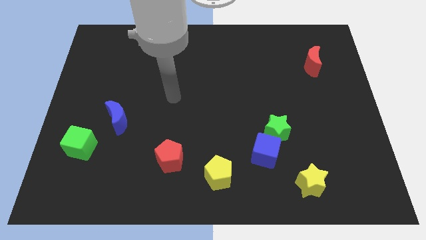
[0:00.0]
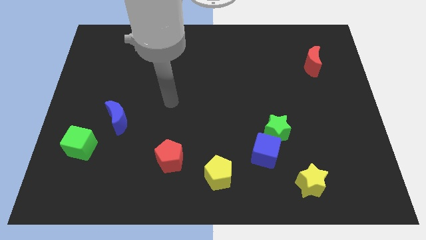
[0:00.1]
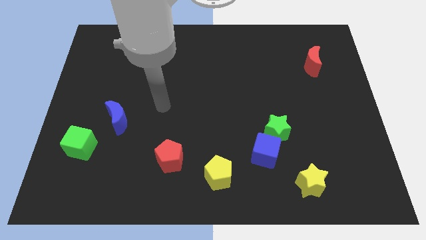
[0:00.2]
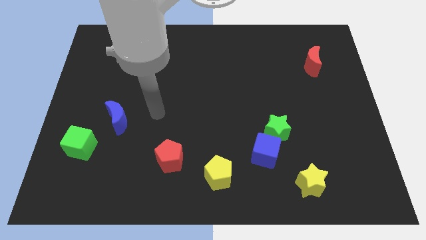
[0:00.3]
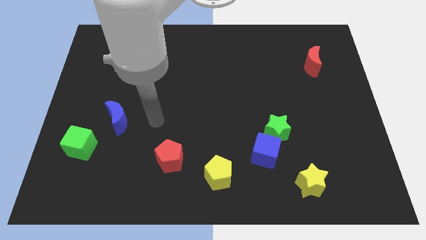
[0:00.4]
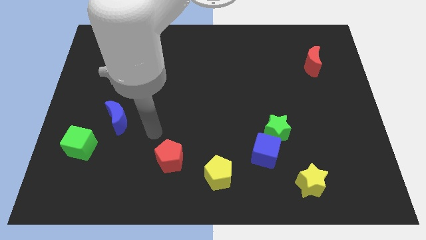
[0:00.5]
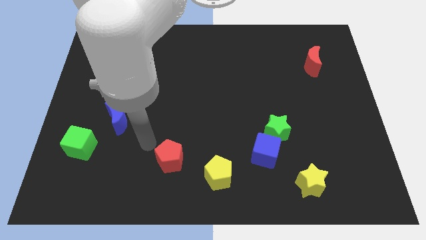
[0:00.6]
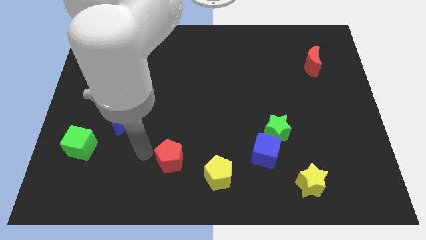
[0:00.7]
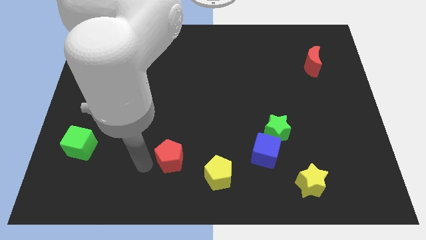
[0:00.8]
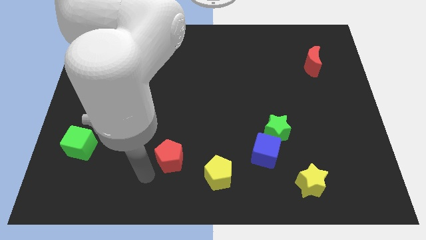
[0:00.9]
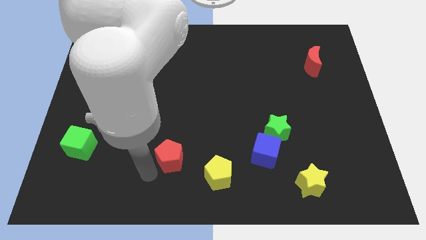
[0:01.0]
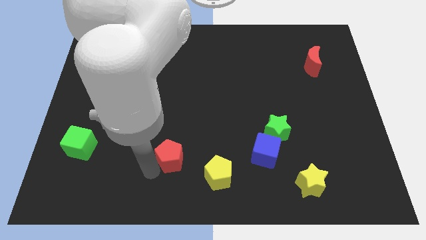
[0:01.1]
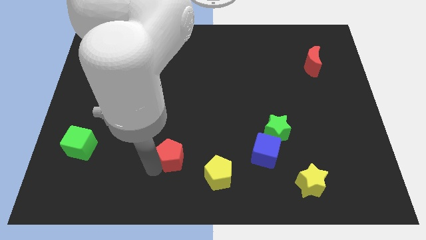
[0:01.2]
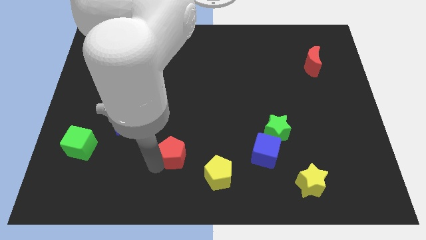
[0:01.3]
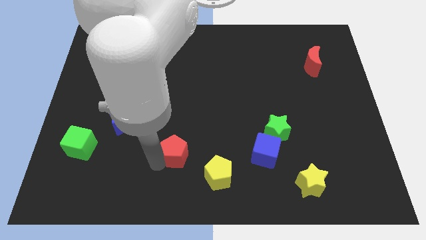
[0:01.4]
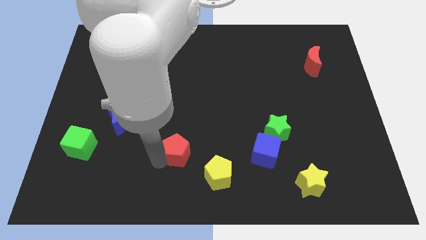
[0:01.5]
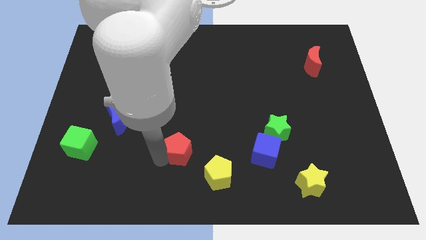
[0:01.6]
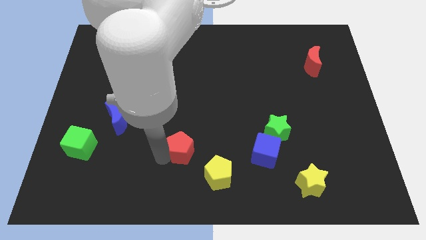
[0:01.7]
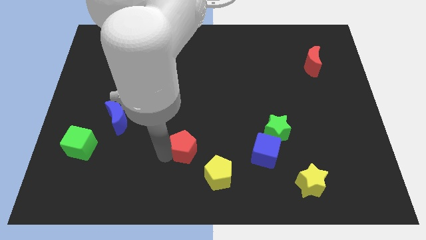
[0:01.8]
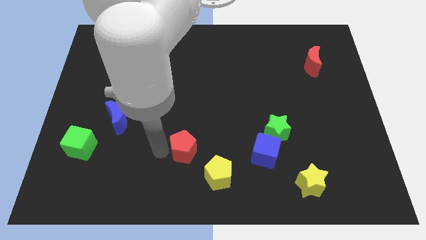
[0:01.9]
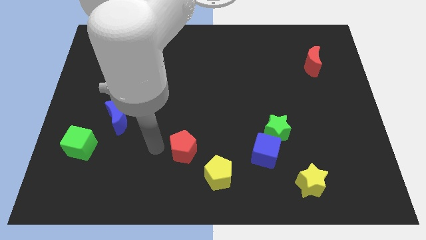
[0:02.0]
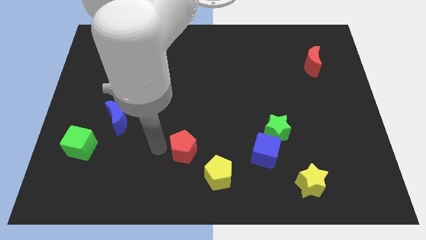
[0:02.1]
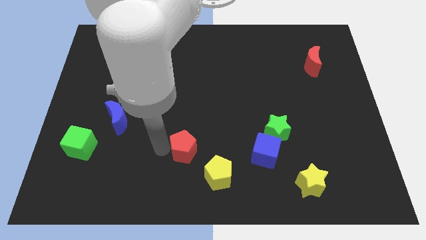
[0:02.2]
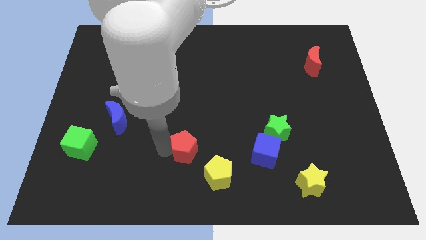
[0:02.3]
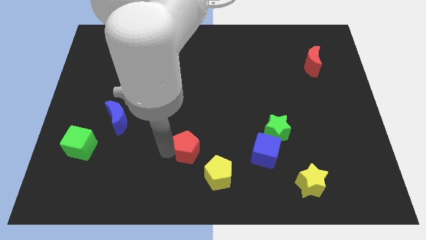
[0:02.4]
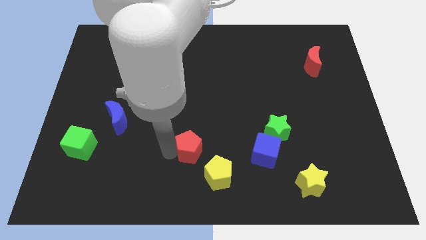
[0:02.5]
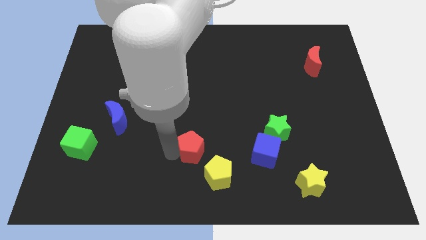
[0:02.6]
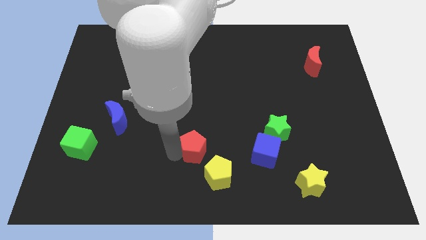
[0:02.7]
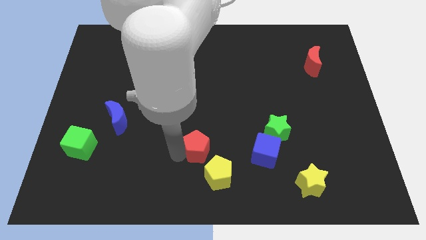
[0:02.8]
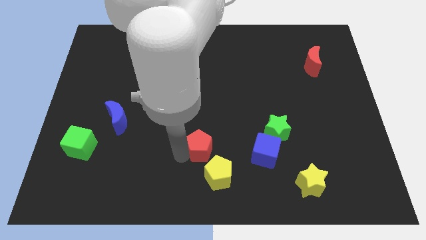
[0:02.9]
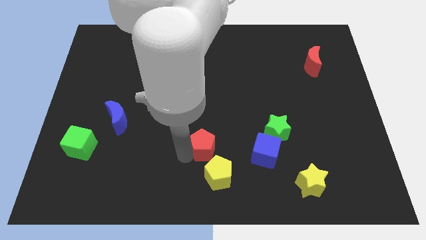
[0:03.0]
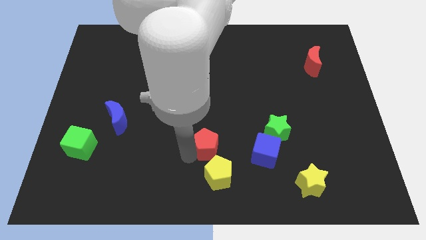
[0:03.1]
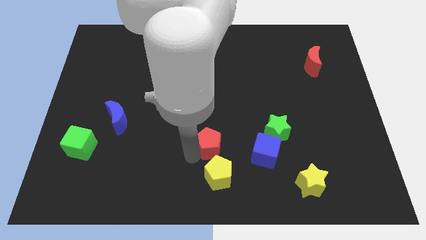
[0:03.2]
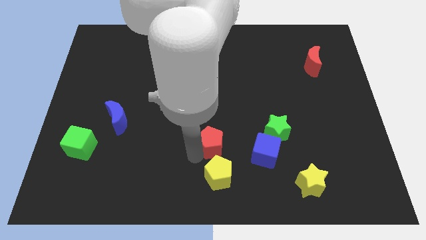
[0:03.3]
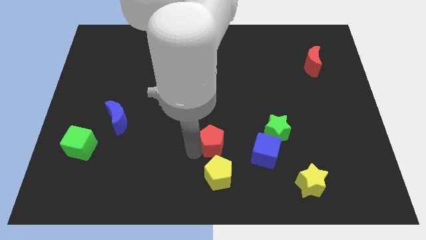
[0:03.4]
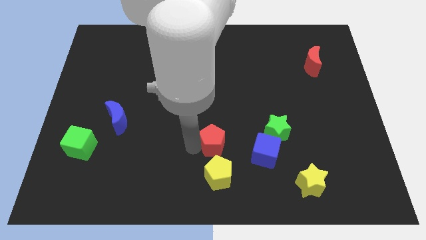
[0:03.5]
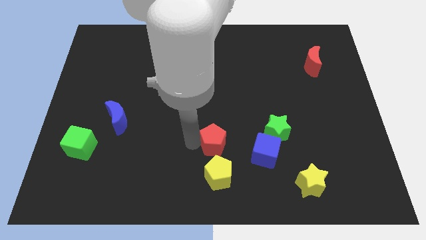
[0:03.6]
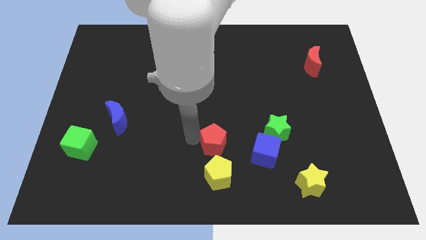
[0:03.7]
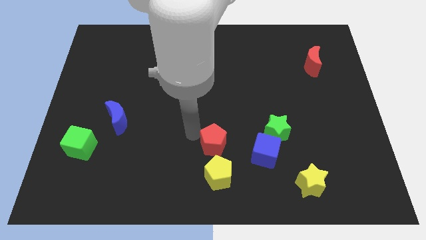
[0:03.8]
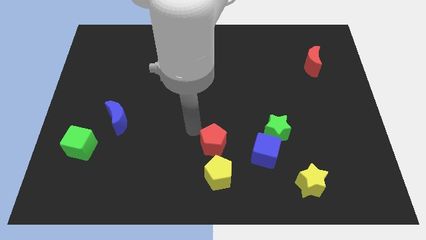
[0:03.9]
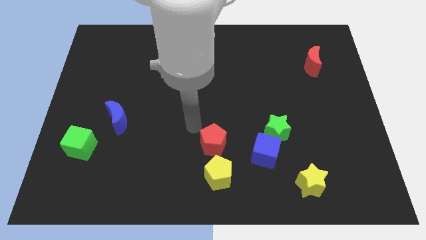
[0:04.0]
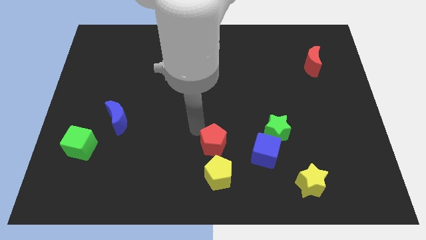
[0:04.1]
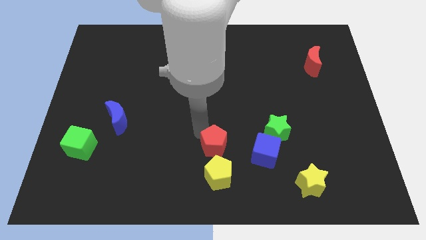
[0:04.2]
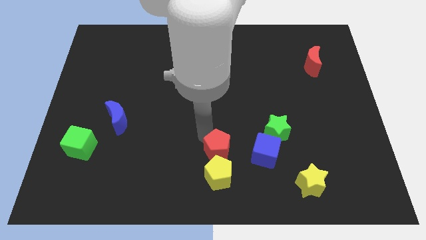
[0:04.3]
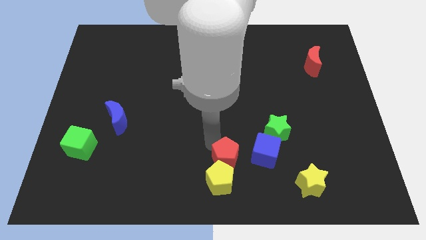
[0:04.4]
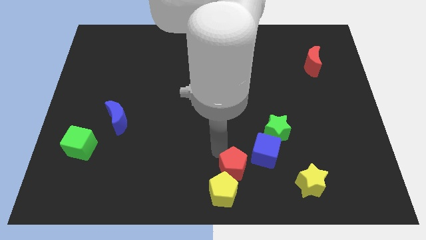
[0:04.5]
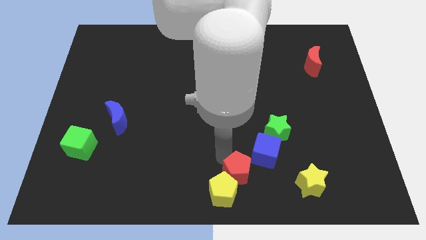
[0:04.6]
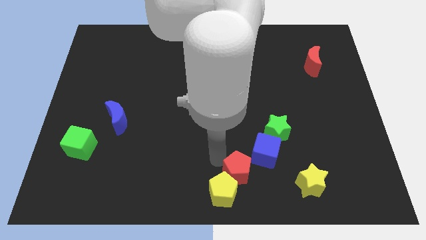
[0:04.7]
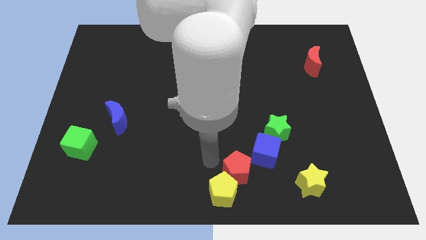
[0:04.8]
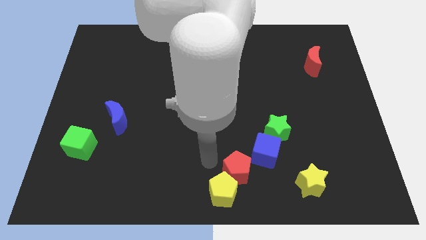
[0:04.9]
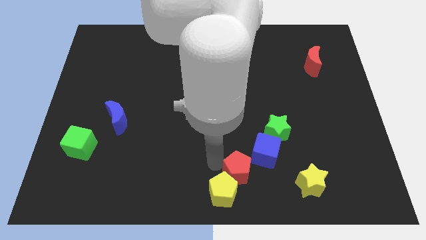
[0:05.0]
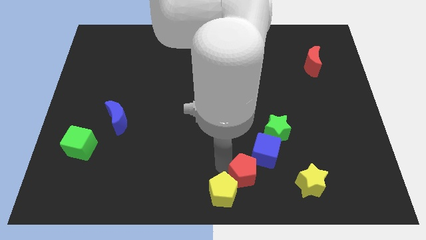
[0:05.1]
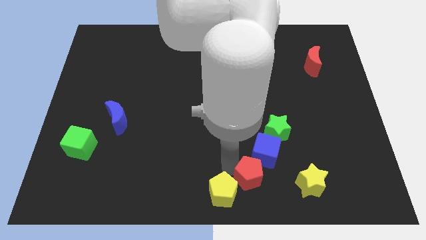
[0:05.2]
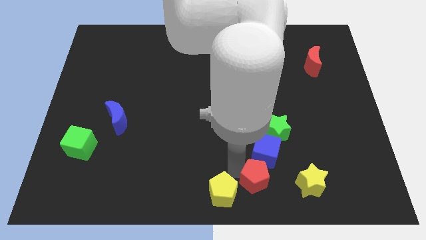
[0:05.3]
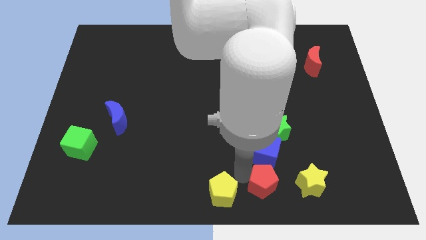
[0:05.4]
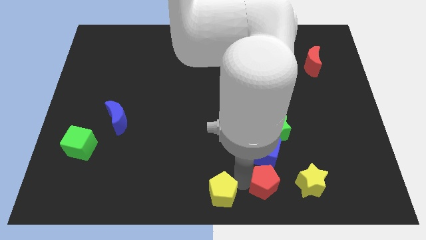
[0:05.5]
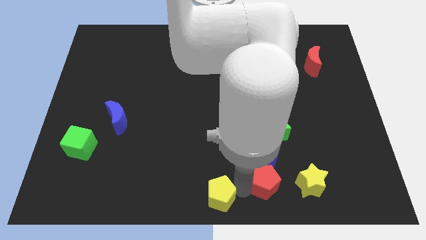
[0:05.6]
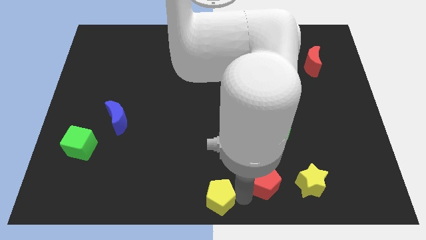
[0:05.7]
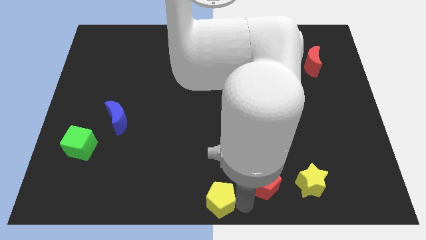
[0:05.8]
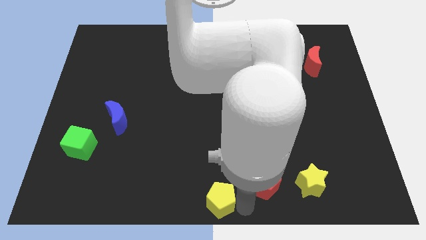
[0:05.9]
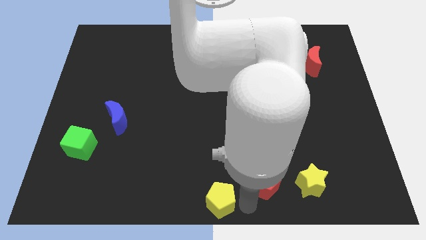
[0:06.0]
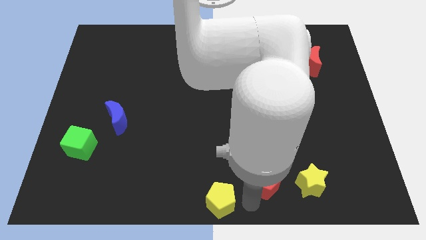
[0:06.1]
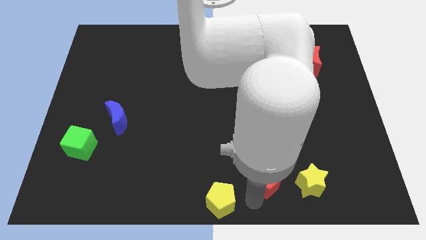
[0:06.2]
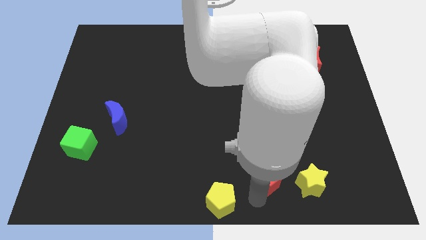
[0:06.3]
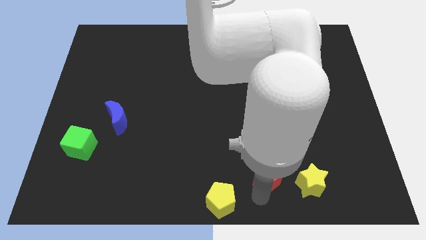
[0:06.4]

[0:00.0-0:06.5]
push the red pentagon to the top left side of the yellow star

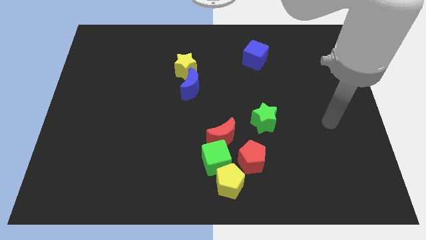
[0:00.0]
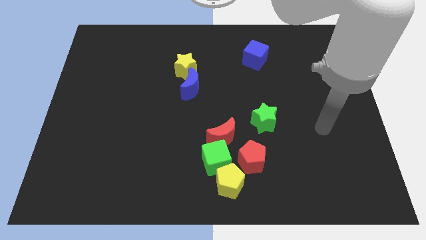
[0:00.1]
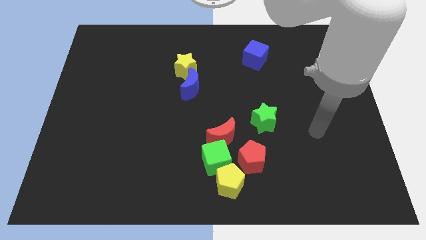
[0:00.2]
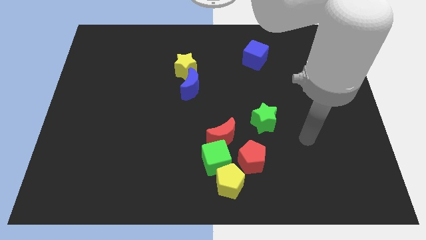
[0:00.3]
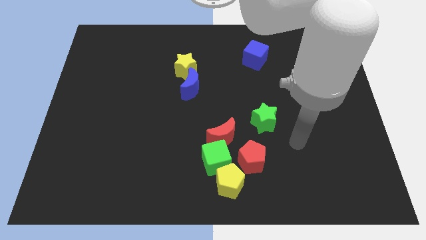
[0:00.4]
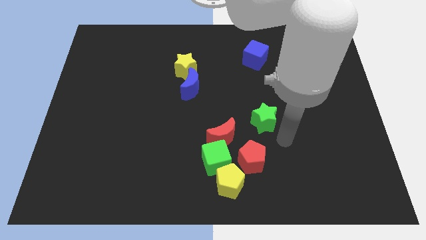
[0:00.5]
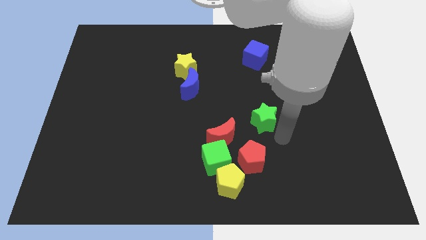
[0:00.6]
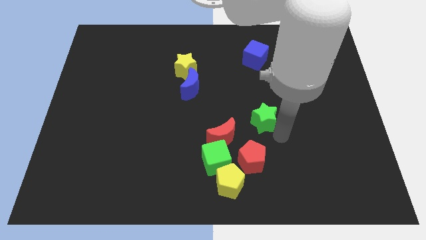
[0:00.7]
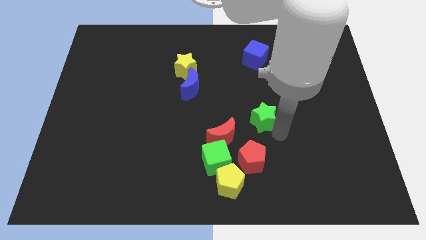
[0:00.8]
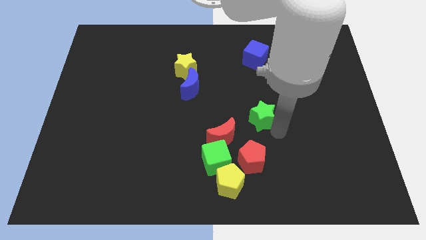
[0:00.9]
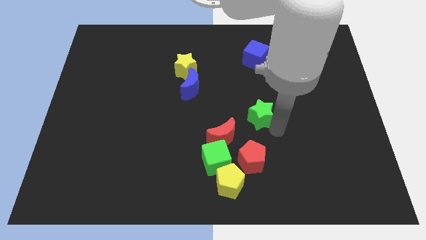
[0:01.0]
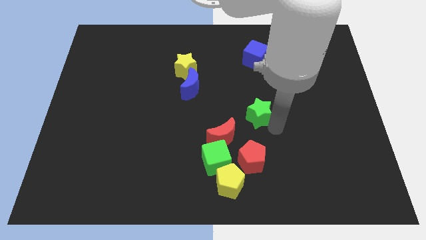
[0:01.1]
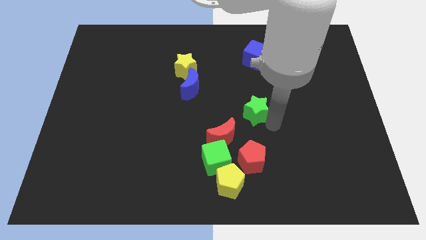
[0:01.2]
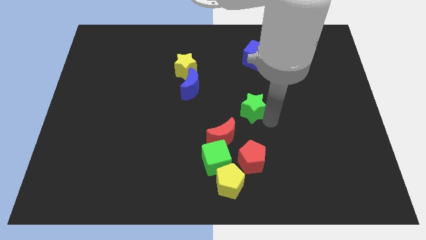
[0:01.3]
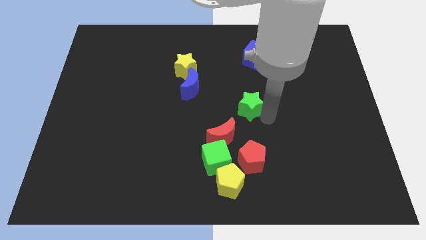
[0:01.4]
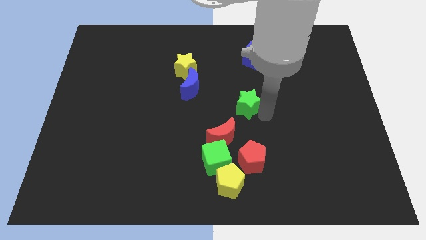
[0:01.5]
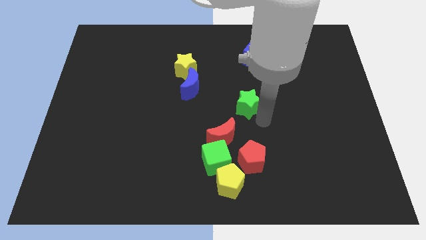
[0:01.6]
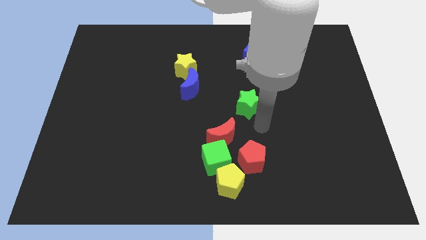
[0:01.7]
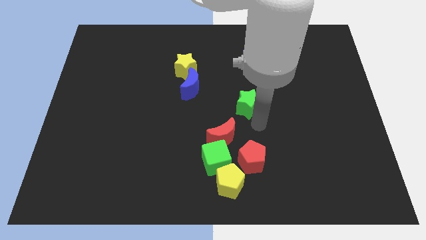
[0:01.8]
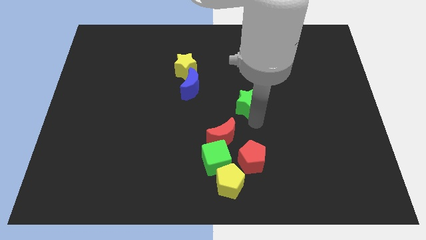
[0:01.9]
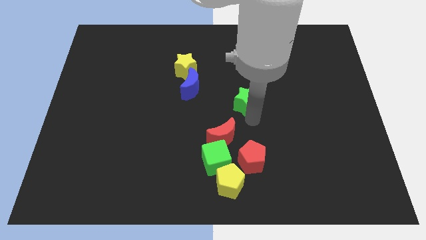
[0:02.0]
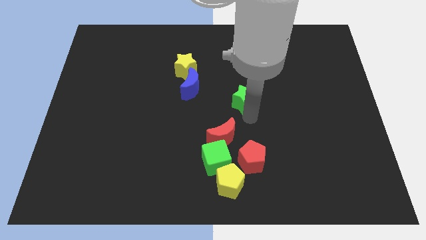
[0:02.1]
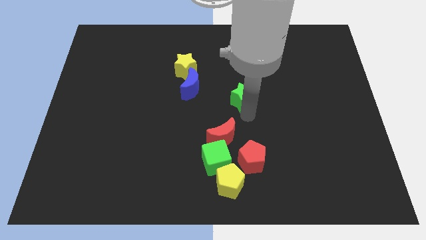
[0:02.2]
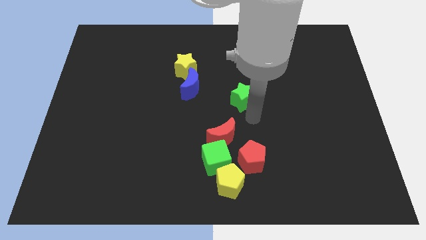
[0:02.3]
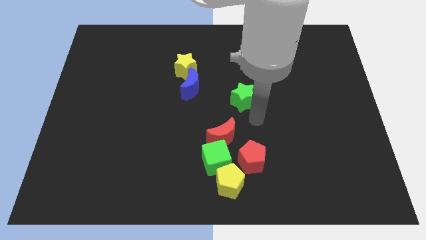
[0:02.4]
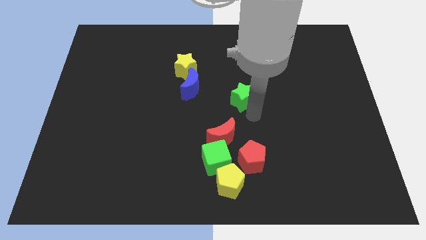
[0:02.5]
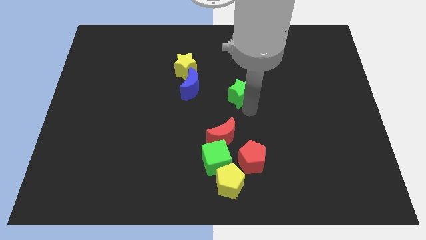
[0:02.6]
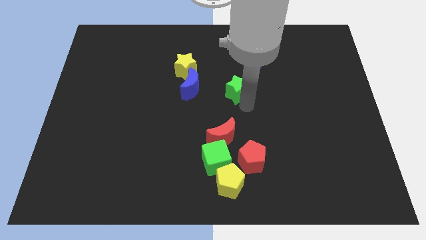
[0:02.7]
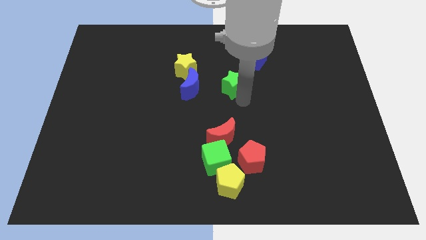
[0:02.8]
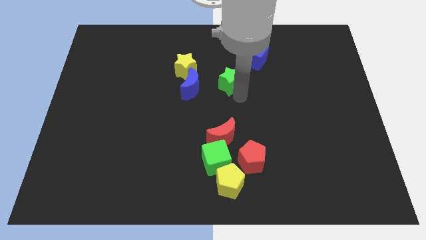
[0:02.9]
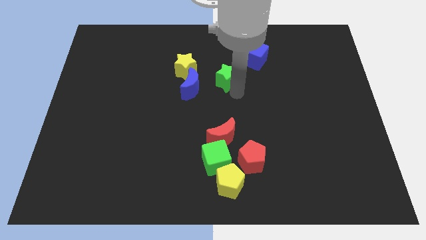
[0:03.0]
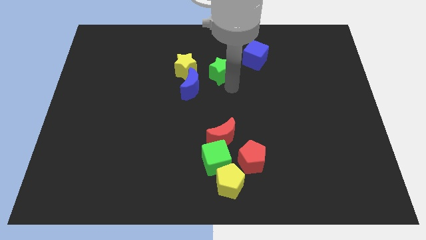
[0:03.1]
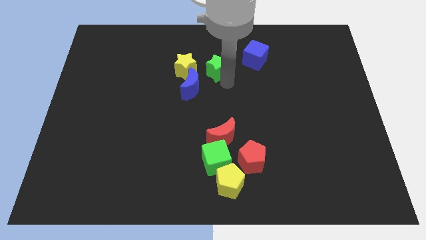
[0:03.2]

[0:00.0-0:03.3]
slide the green star just left of the blue cube
